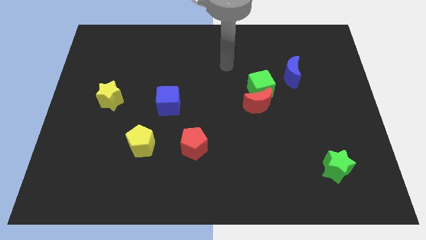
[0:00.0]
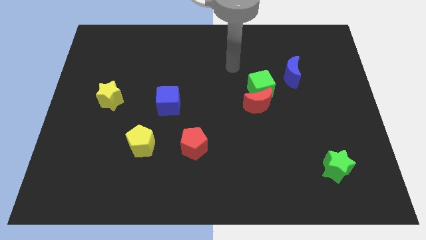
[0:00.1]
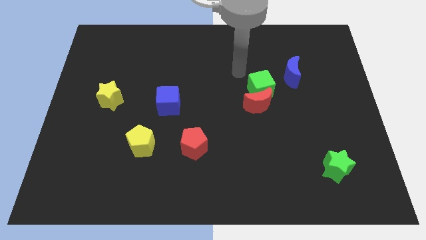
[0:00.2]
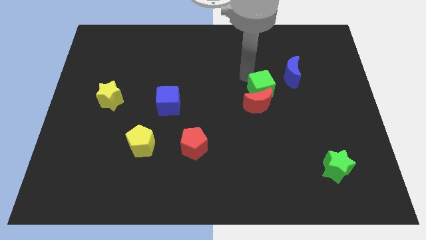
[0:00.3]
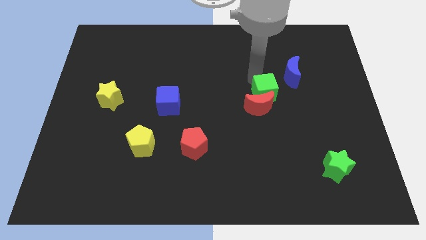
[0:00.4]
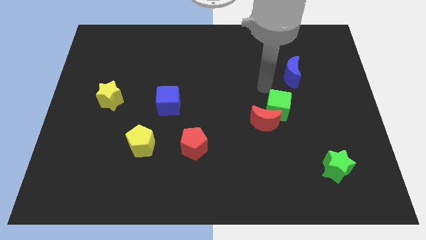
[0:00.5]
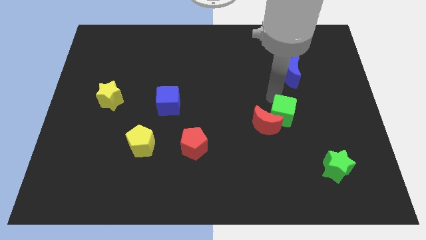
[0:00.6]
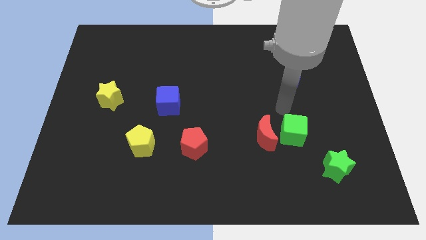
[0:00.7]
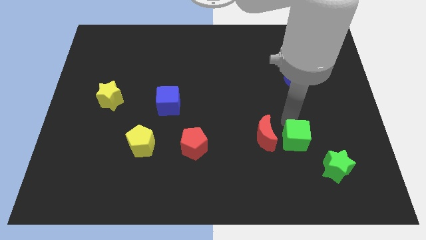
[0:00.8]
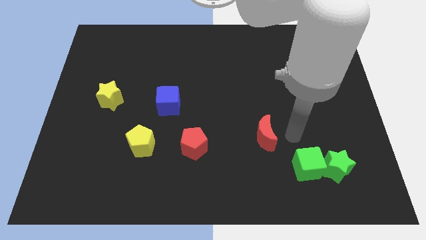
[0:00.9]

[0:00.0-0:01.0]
separate the red moon from the green cube

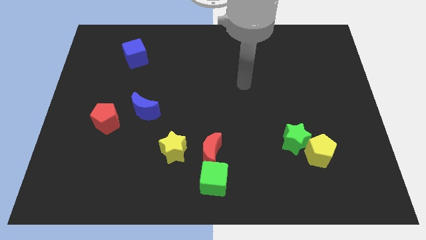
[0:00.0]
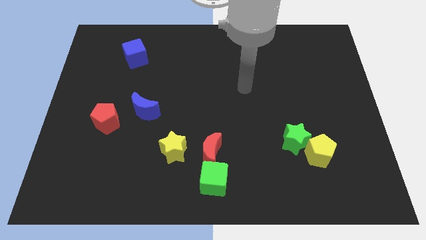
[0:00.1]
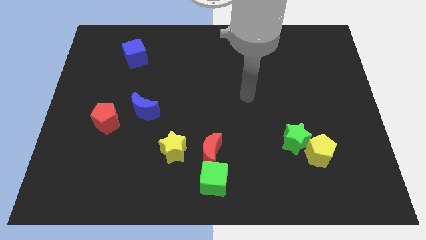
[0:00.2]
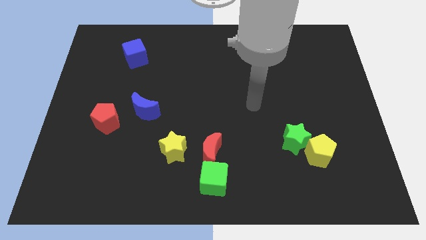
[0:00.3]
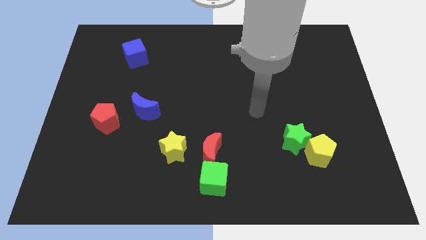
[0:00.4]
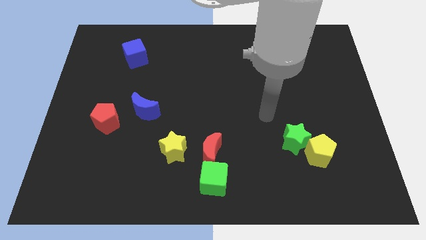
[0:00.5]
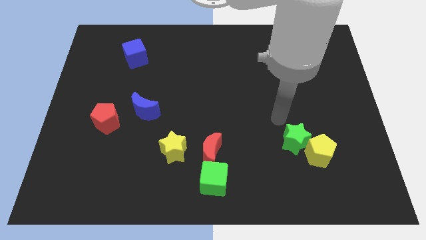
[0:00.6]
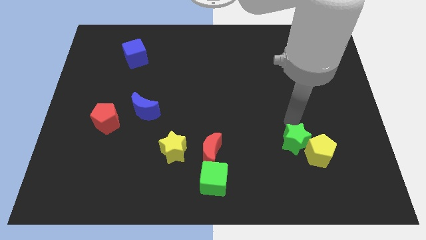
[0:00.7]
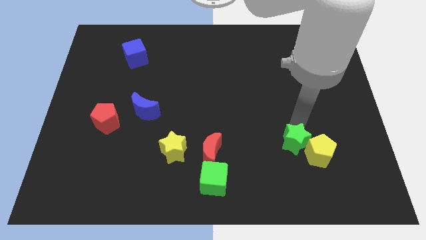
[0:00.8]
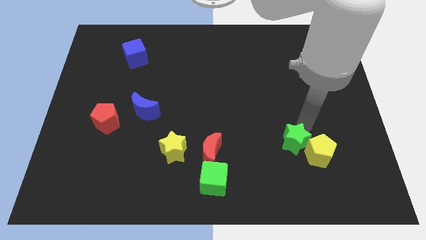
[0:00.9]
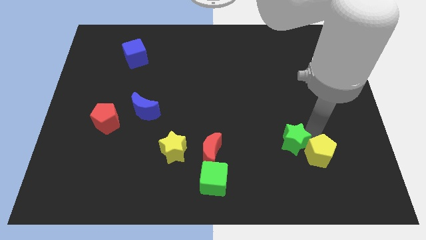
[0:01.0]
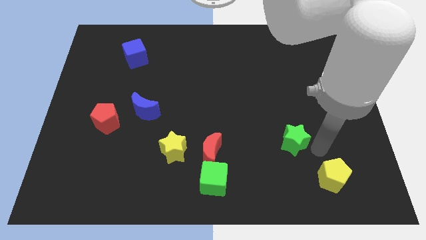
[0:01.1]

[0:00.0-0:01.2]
separate the green star from the yellow pentagon

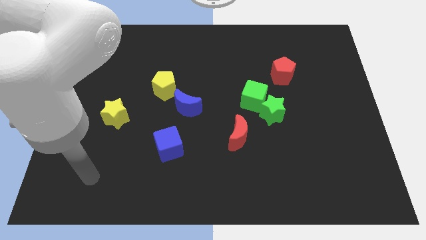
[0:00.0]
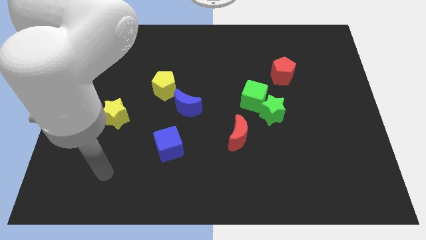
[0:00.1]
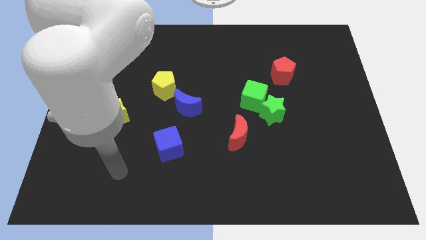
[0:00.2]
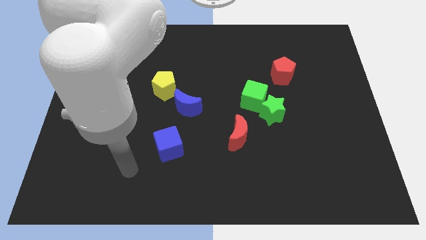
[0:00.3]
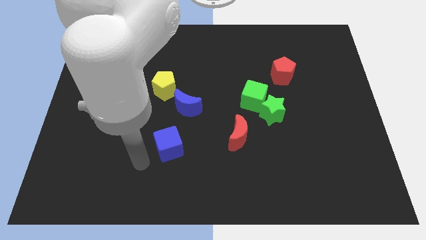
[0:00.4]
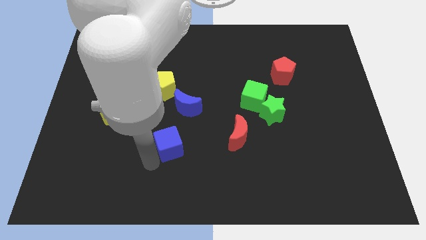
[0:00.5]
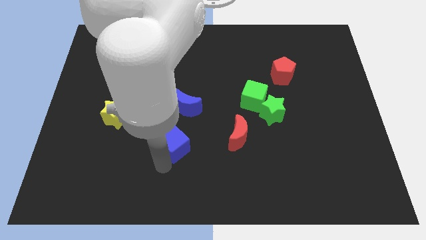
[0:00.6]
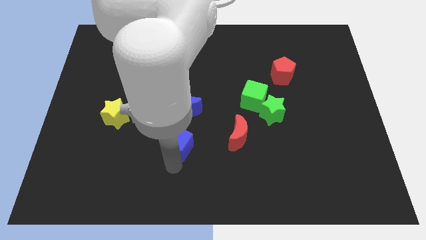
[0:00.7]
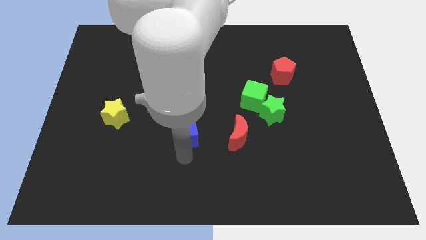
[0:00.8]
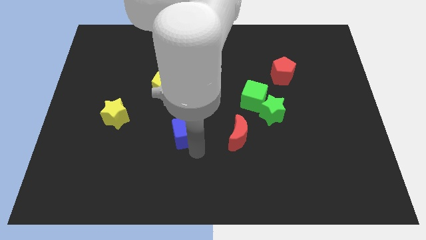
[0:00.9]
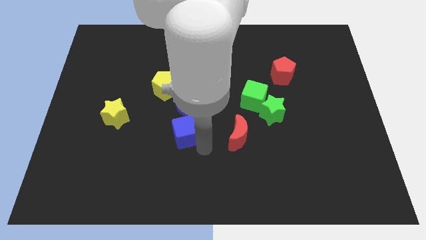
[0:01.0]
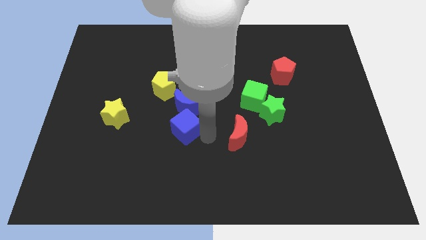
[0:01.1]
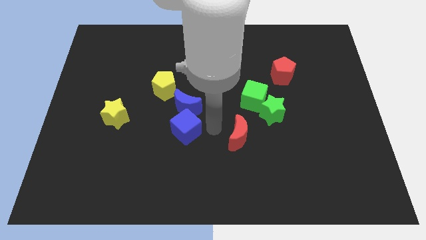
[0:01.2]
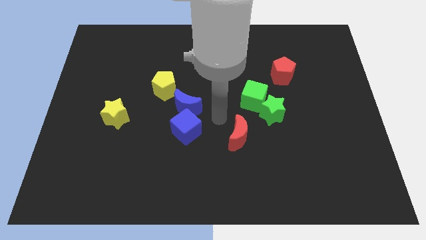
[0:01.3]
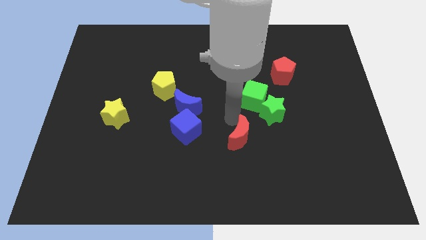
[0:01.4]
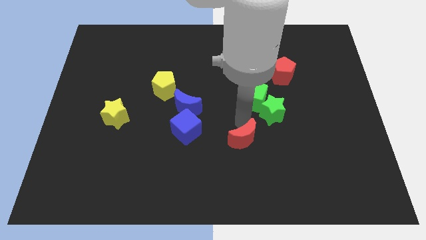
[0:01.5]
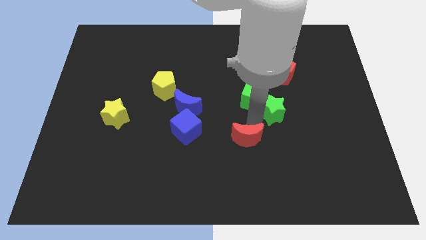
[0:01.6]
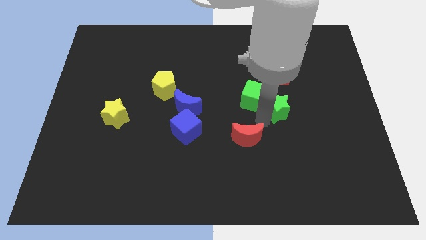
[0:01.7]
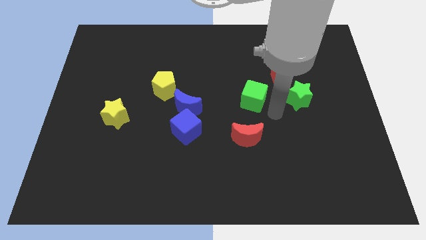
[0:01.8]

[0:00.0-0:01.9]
separate the green cube from the green star

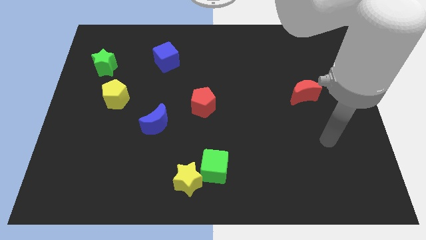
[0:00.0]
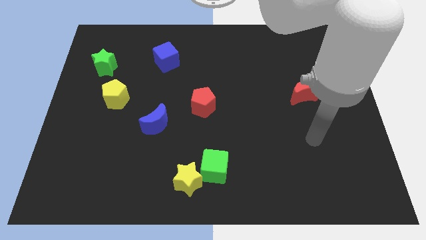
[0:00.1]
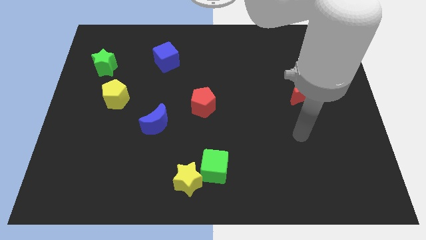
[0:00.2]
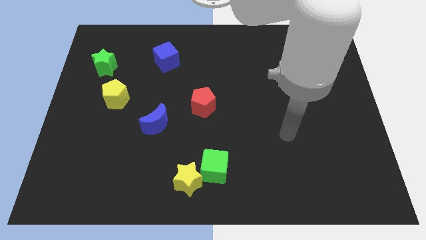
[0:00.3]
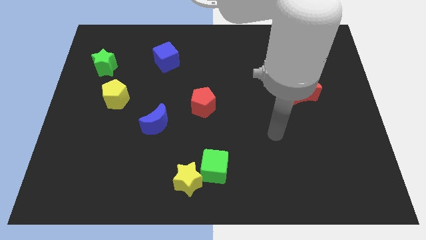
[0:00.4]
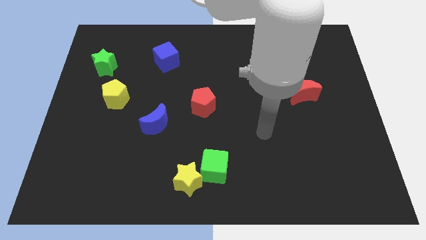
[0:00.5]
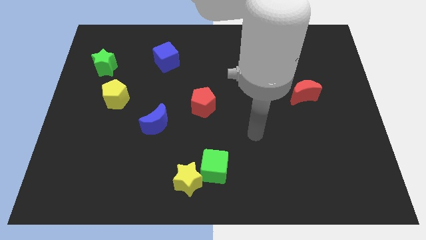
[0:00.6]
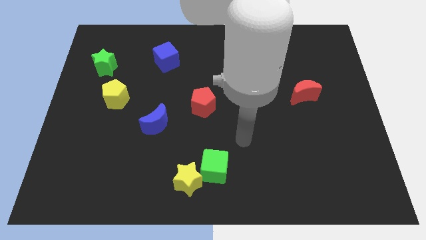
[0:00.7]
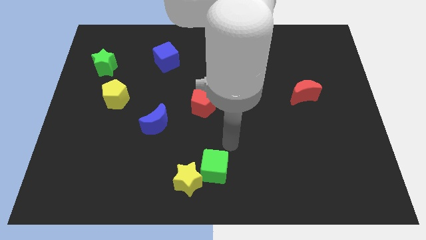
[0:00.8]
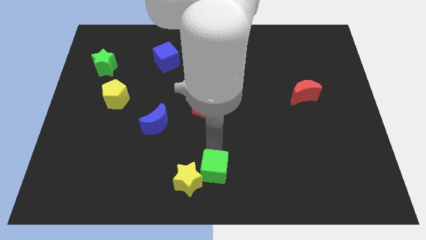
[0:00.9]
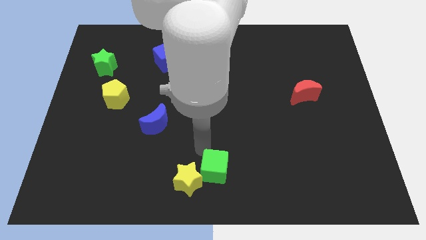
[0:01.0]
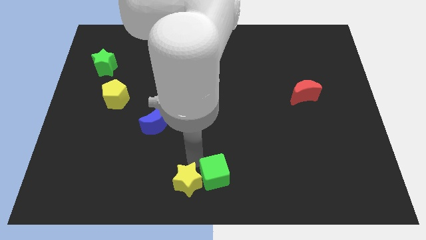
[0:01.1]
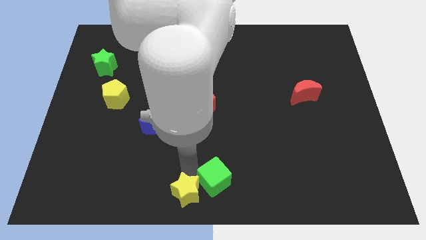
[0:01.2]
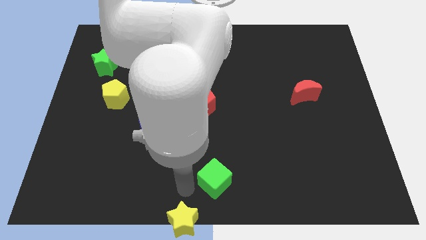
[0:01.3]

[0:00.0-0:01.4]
separate the green cube from the yellow star

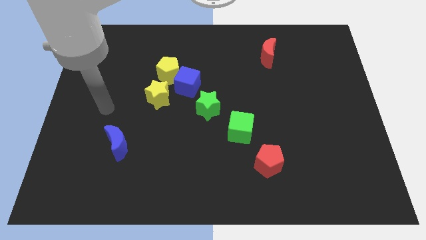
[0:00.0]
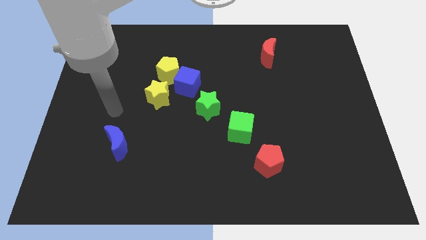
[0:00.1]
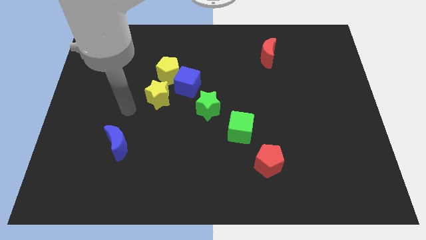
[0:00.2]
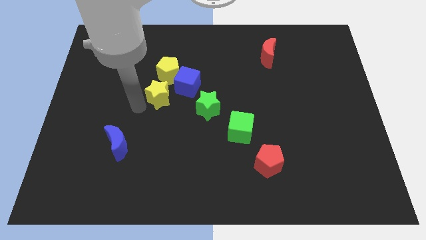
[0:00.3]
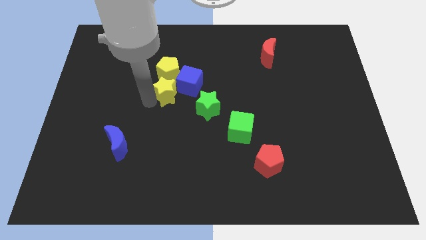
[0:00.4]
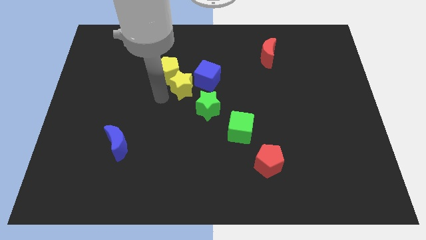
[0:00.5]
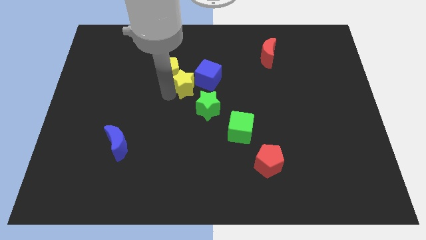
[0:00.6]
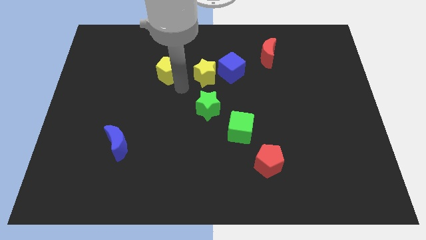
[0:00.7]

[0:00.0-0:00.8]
pull the yellow pentagon apart from the blue cube and yellow star

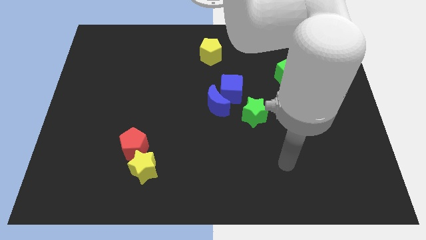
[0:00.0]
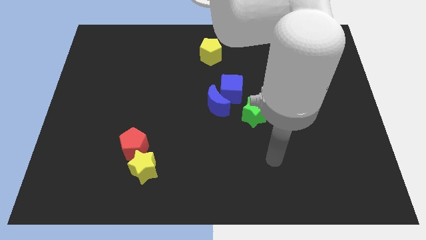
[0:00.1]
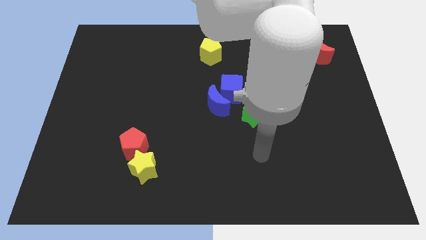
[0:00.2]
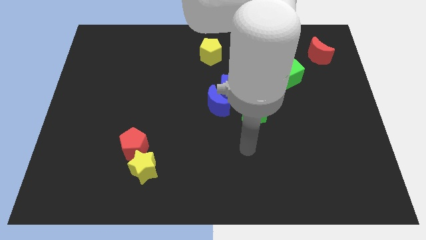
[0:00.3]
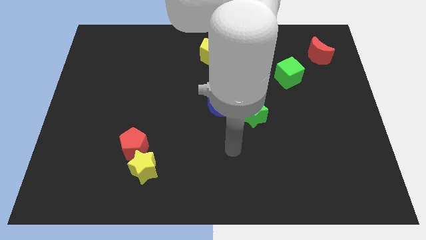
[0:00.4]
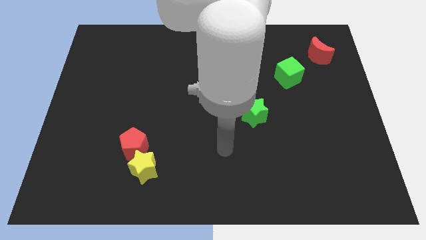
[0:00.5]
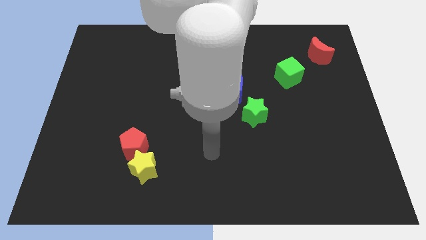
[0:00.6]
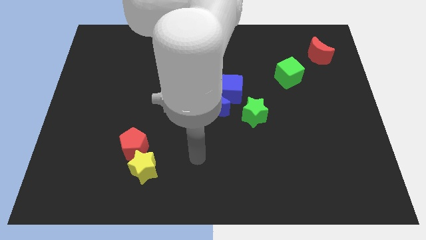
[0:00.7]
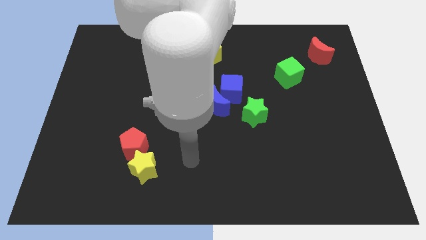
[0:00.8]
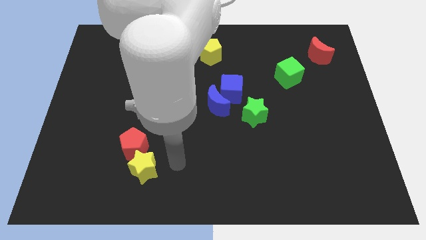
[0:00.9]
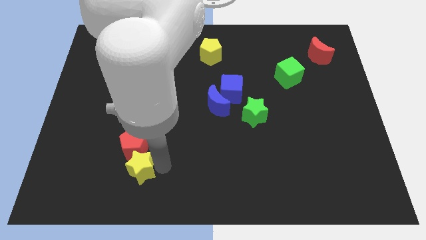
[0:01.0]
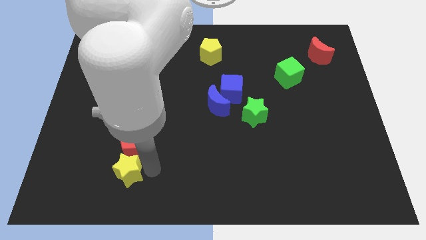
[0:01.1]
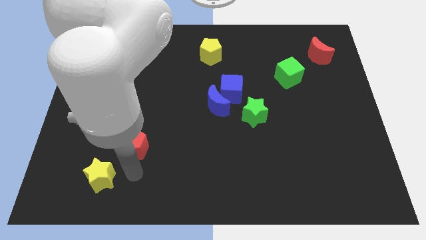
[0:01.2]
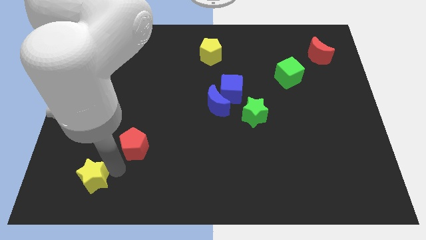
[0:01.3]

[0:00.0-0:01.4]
pull the red pentagon apart from the yellow star

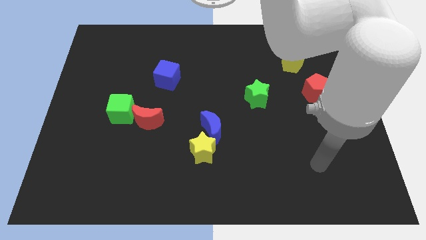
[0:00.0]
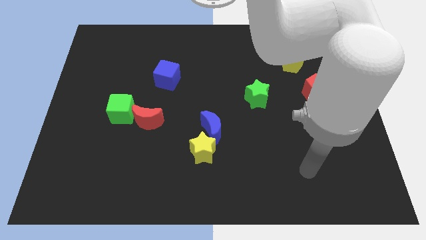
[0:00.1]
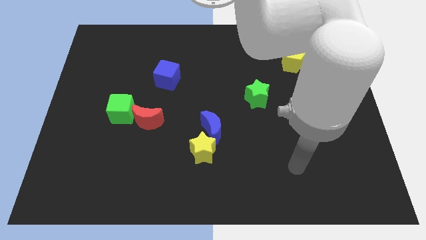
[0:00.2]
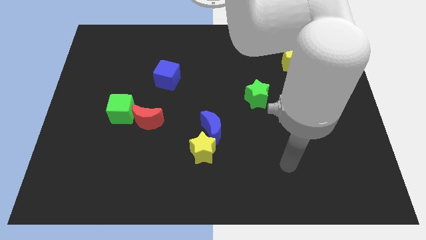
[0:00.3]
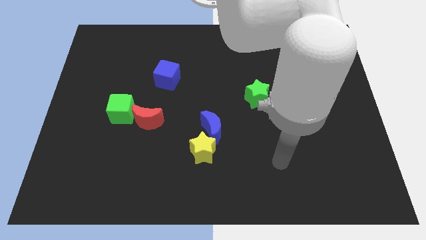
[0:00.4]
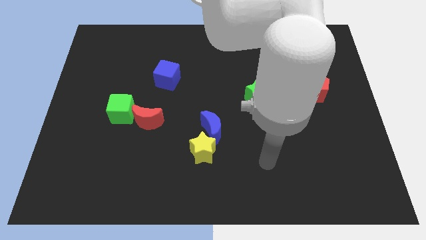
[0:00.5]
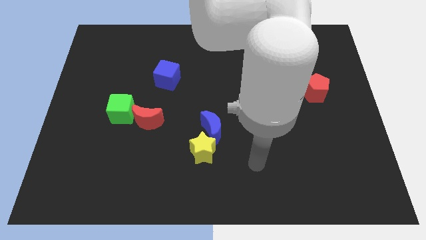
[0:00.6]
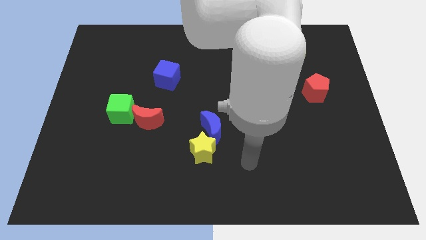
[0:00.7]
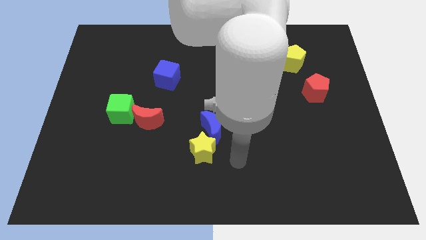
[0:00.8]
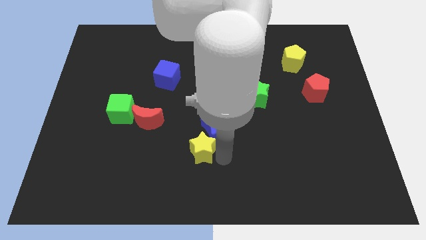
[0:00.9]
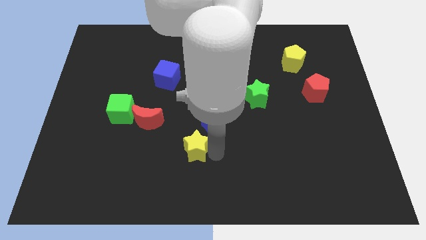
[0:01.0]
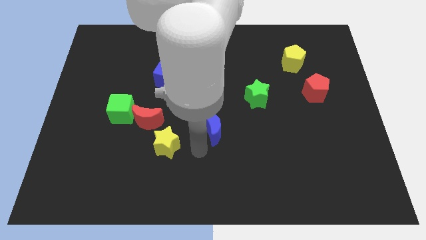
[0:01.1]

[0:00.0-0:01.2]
move the blue moon away from the yellow star

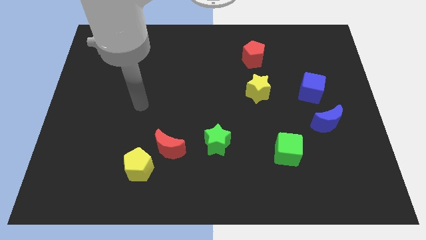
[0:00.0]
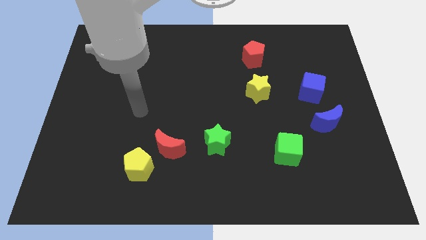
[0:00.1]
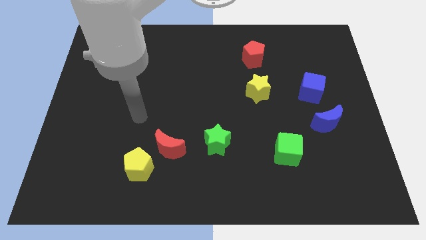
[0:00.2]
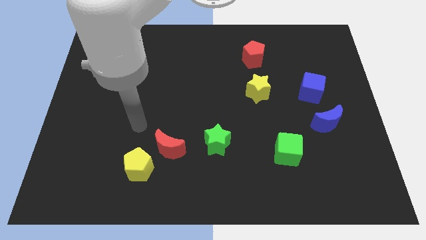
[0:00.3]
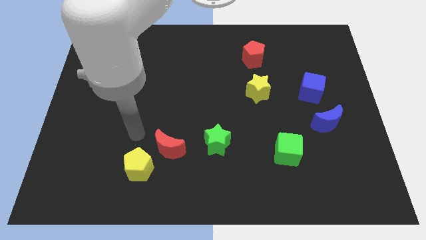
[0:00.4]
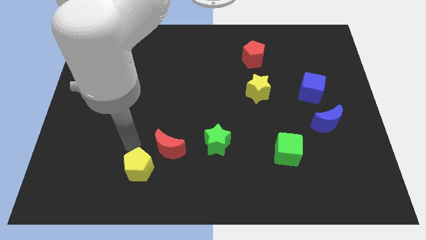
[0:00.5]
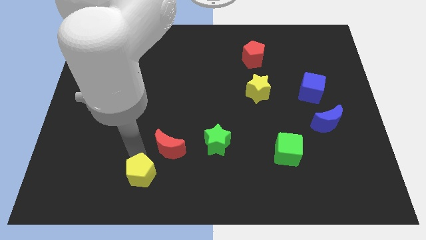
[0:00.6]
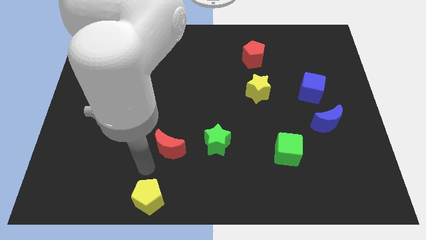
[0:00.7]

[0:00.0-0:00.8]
pull the red moon apart from the yellow pentagon
